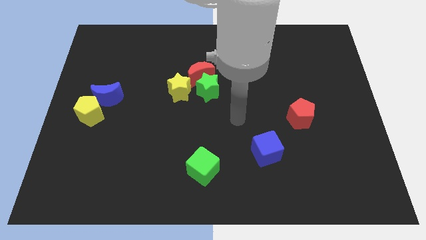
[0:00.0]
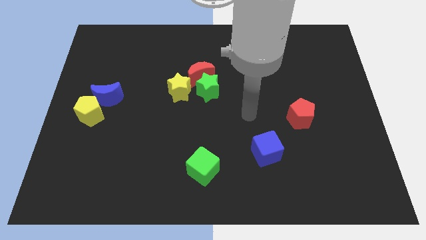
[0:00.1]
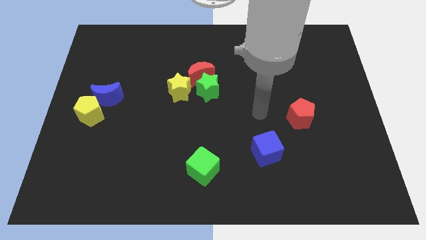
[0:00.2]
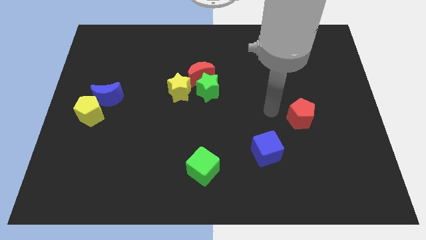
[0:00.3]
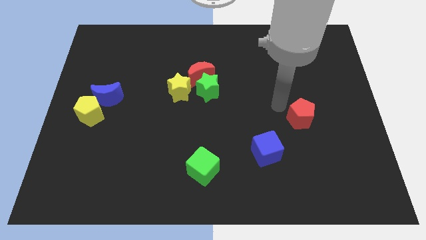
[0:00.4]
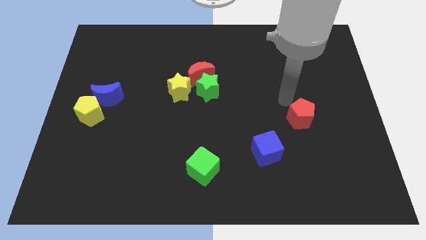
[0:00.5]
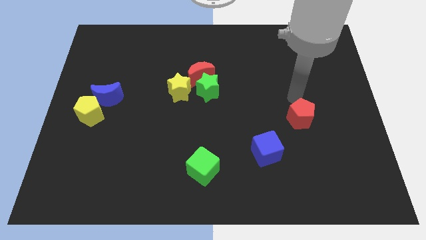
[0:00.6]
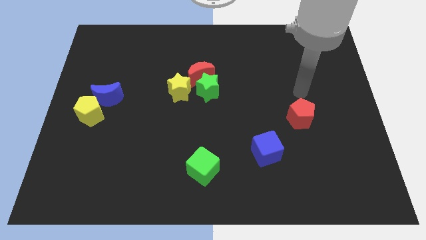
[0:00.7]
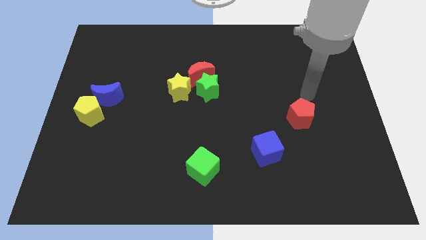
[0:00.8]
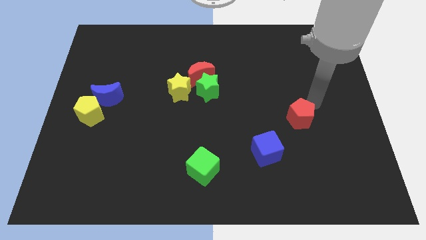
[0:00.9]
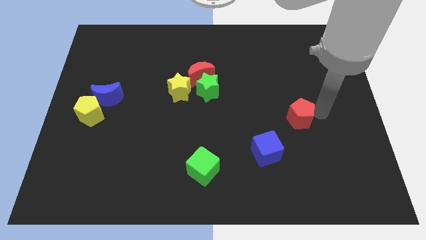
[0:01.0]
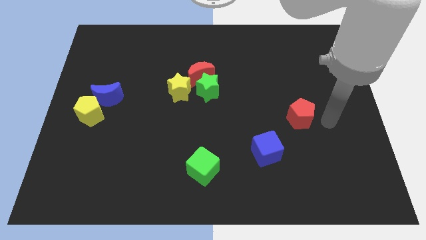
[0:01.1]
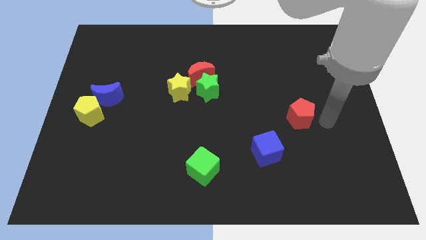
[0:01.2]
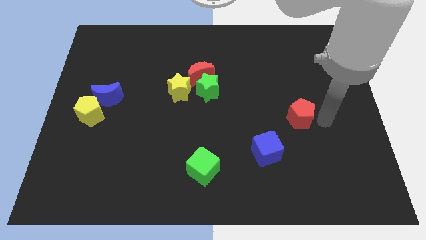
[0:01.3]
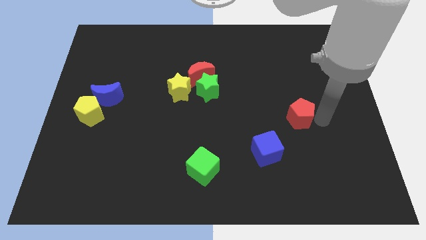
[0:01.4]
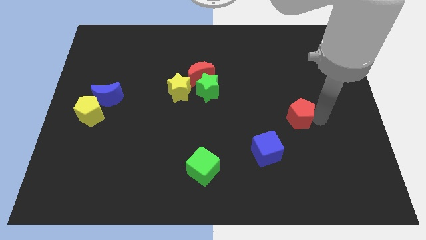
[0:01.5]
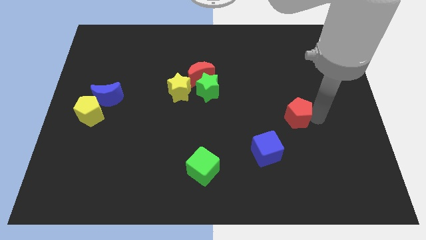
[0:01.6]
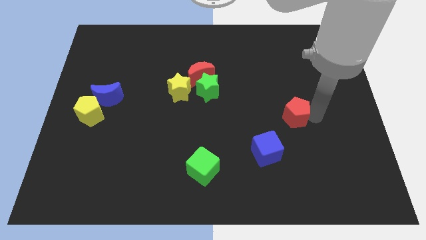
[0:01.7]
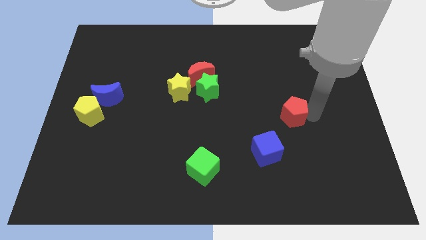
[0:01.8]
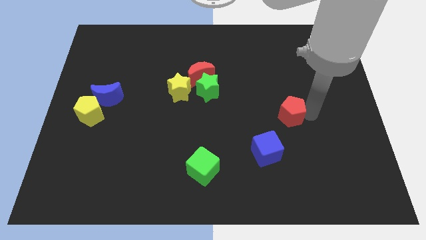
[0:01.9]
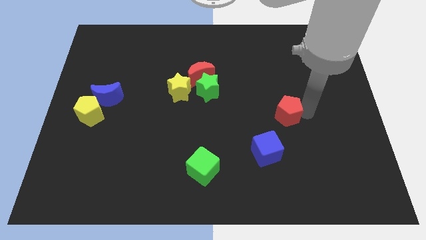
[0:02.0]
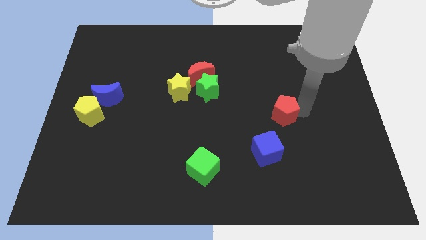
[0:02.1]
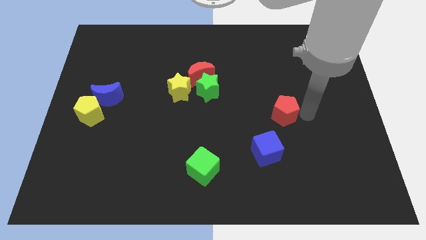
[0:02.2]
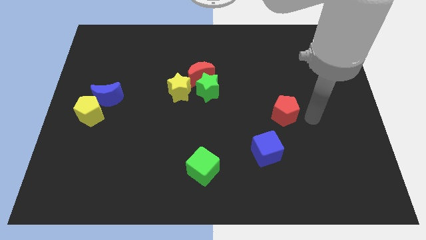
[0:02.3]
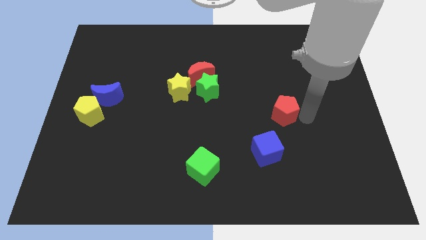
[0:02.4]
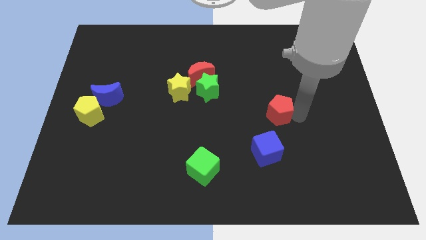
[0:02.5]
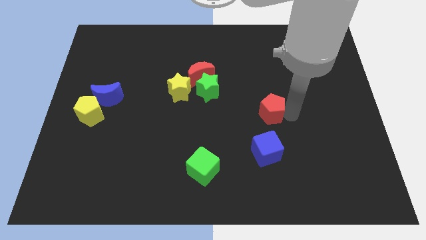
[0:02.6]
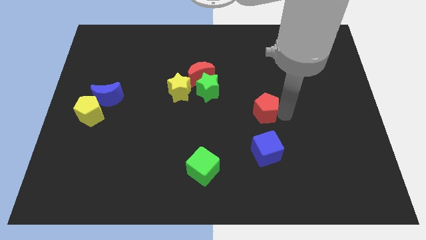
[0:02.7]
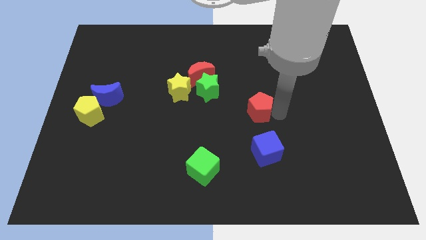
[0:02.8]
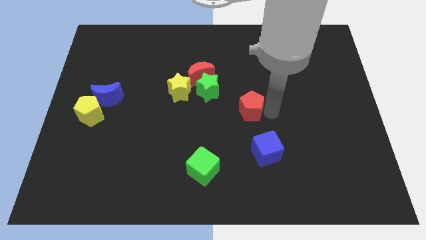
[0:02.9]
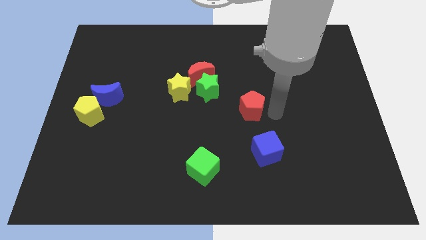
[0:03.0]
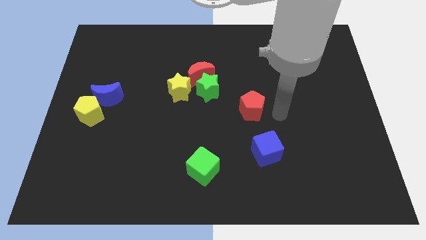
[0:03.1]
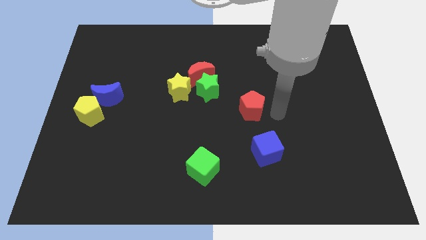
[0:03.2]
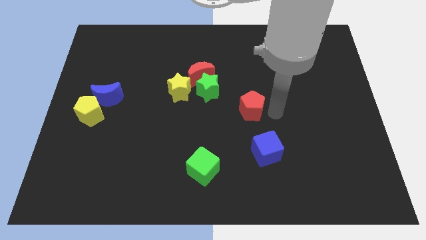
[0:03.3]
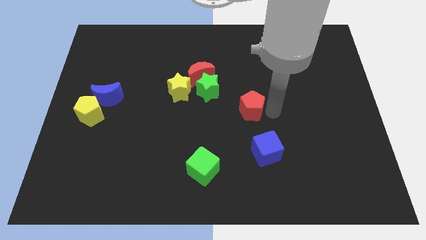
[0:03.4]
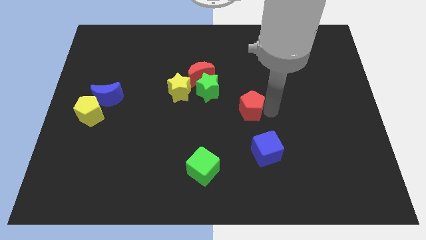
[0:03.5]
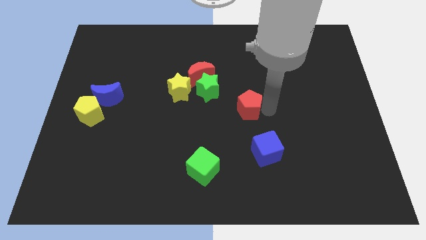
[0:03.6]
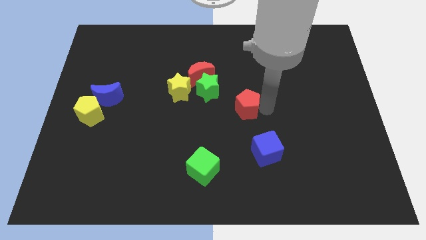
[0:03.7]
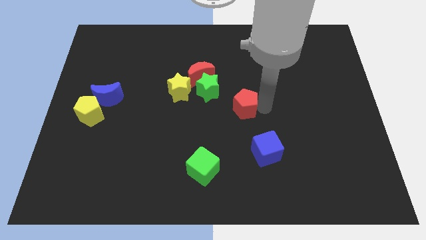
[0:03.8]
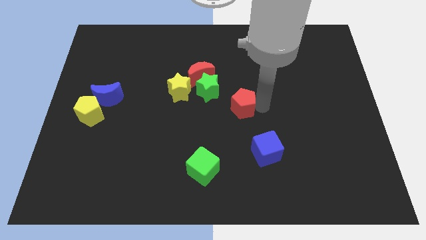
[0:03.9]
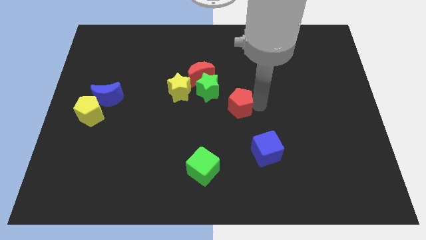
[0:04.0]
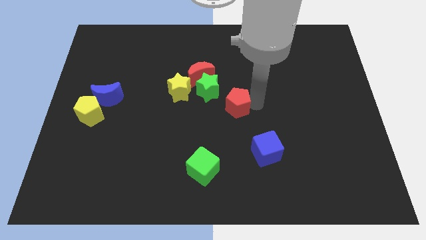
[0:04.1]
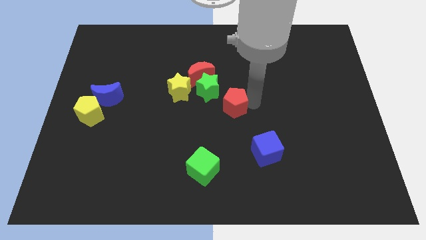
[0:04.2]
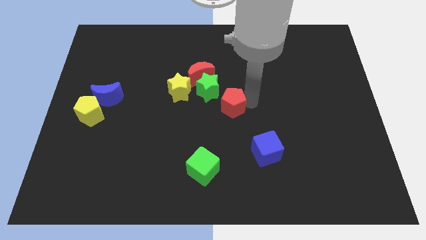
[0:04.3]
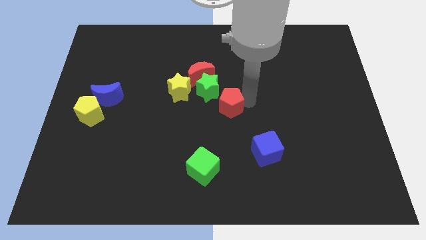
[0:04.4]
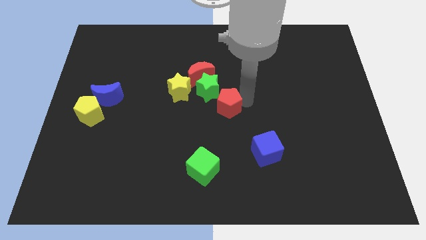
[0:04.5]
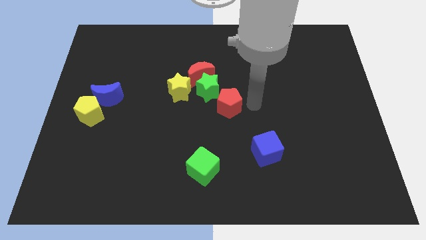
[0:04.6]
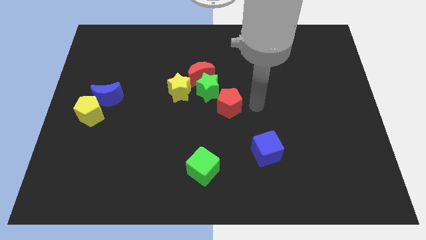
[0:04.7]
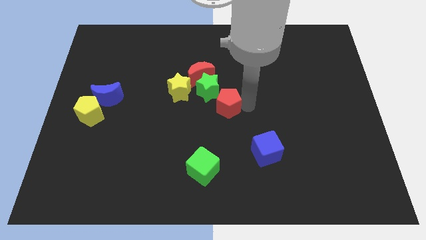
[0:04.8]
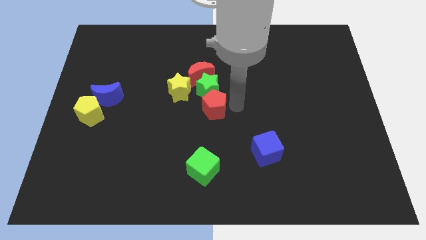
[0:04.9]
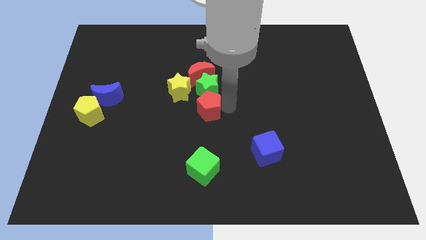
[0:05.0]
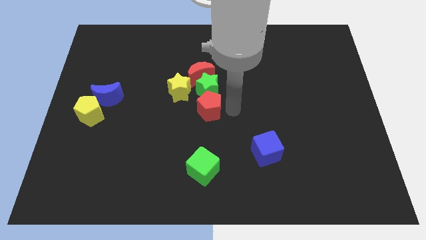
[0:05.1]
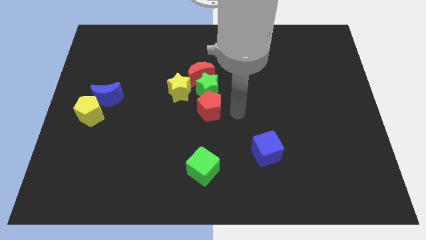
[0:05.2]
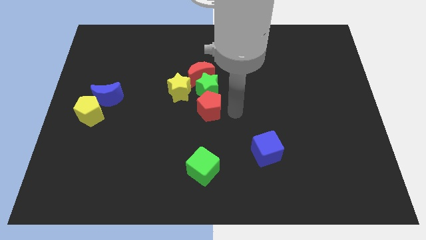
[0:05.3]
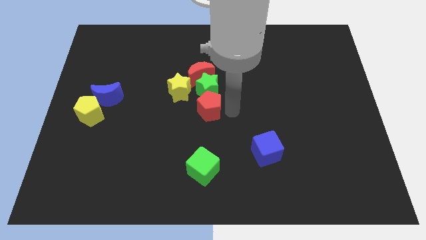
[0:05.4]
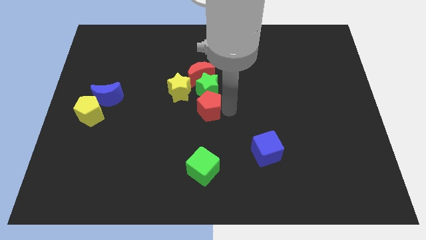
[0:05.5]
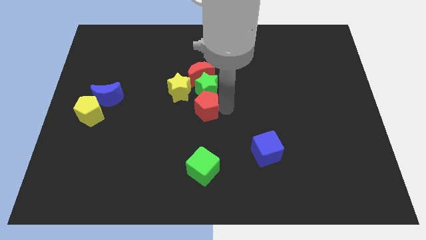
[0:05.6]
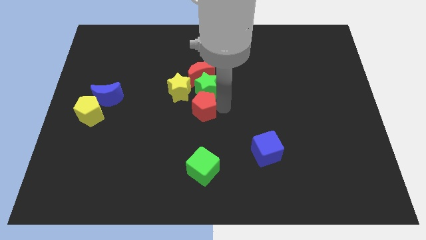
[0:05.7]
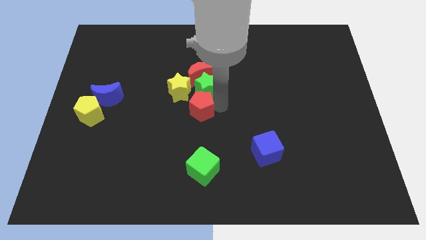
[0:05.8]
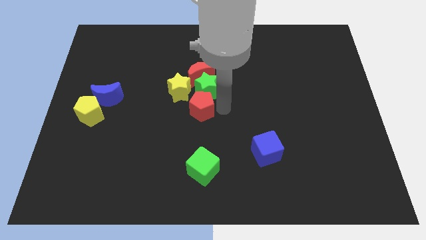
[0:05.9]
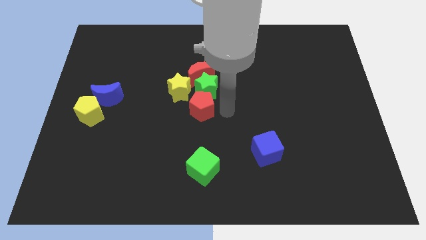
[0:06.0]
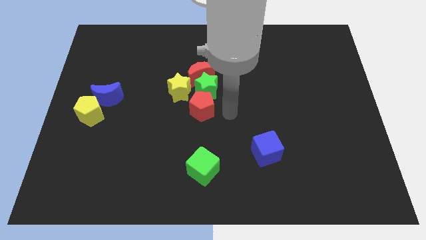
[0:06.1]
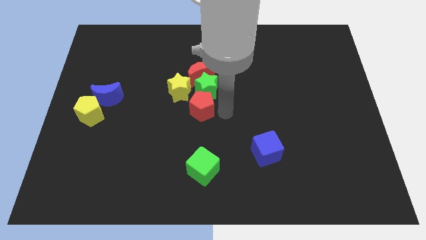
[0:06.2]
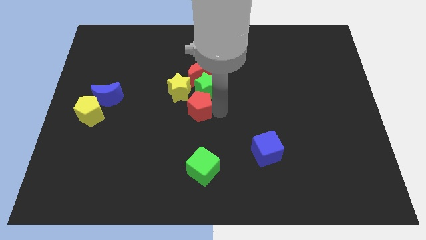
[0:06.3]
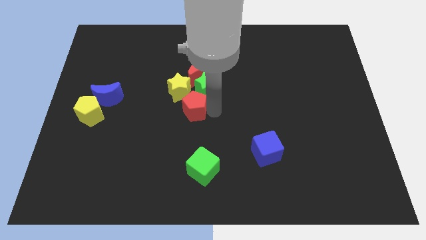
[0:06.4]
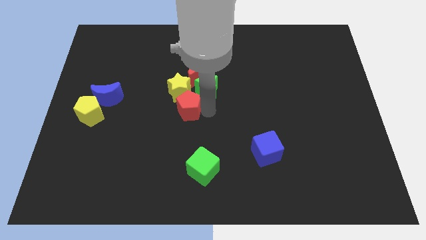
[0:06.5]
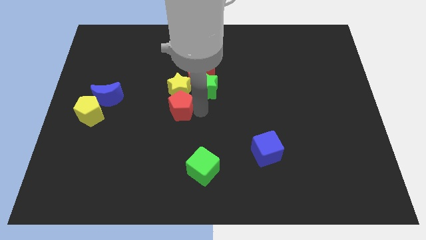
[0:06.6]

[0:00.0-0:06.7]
put the red pentagon to the bottom left of the red moon
